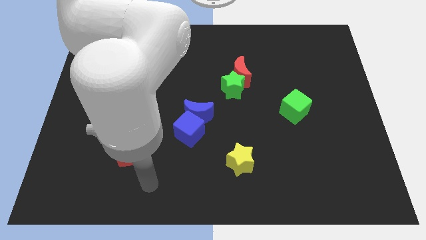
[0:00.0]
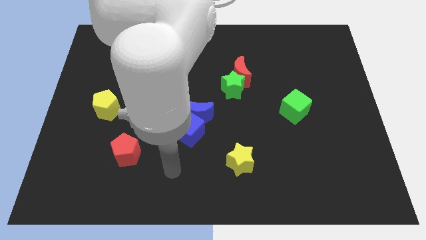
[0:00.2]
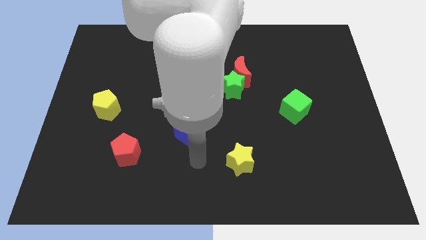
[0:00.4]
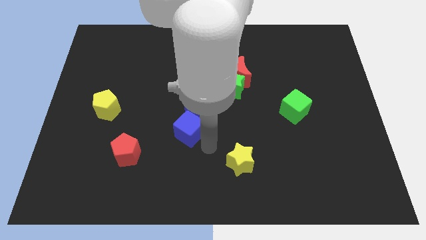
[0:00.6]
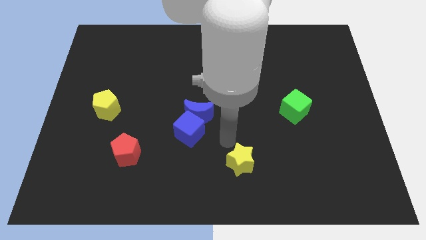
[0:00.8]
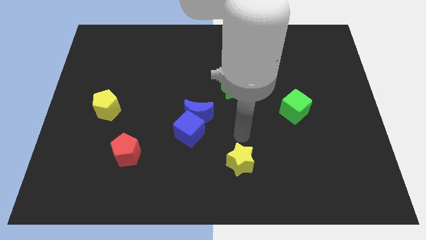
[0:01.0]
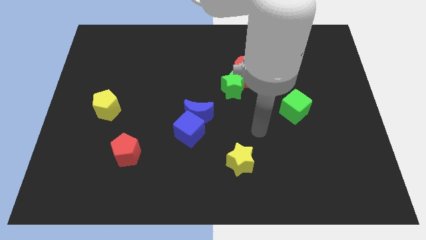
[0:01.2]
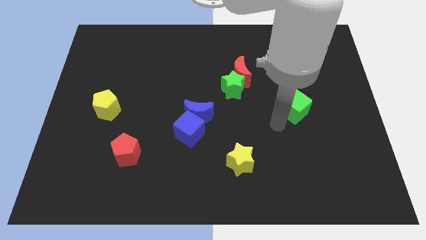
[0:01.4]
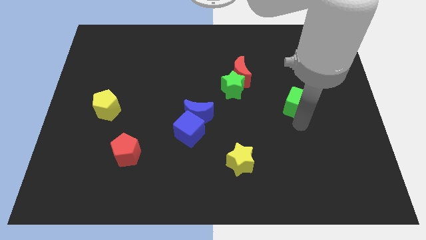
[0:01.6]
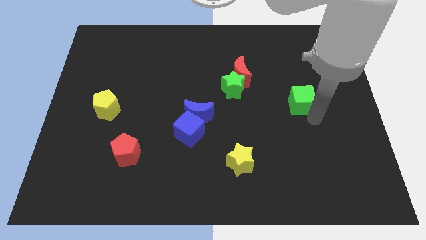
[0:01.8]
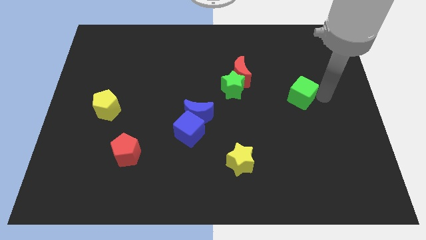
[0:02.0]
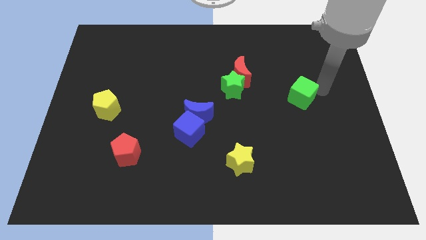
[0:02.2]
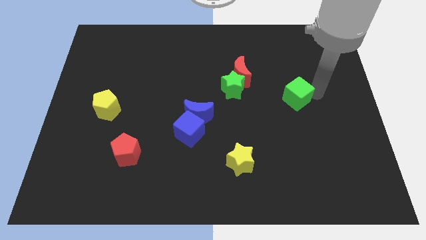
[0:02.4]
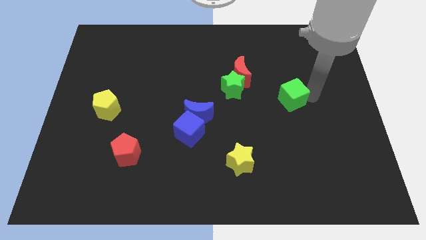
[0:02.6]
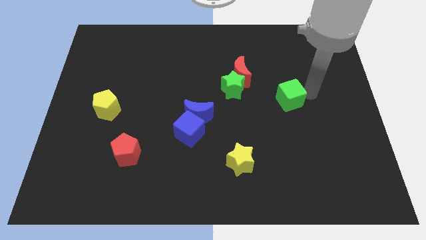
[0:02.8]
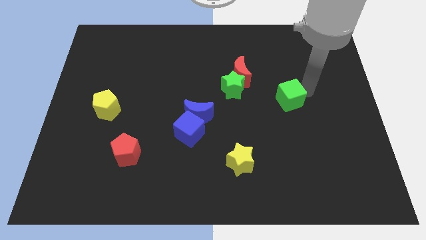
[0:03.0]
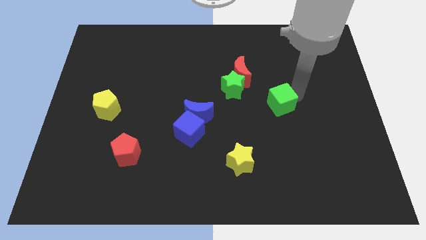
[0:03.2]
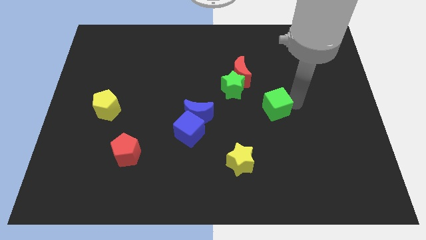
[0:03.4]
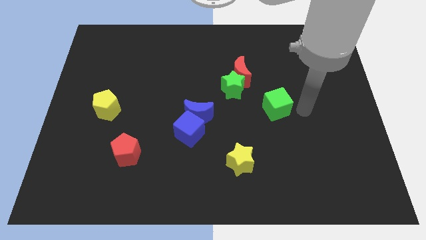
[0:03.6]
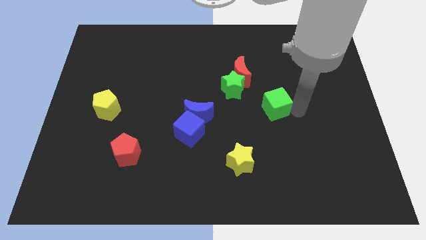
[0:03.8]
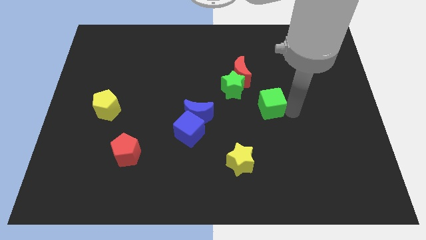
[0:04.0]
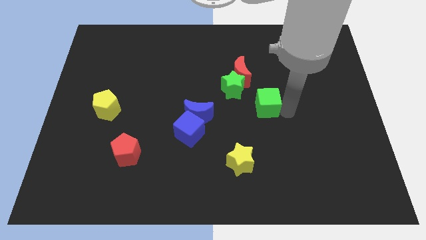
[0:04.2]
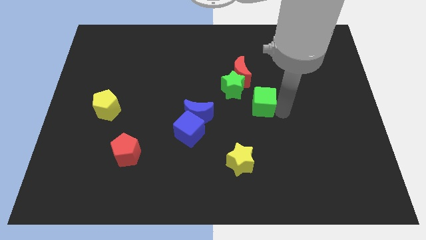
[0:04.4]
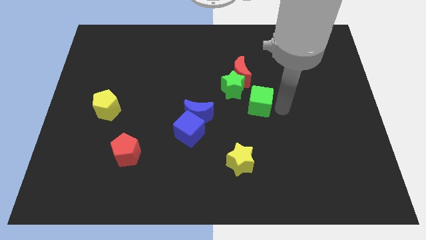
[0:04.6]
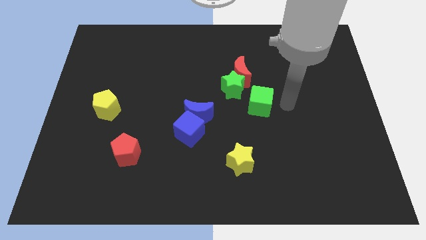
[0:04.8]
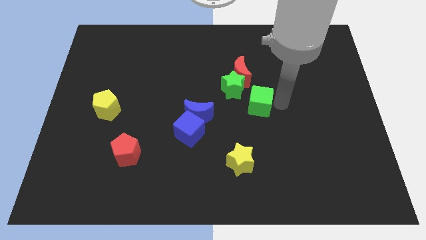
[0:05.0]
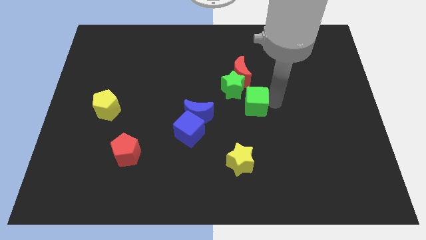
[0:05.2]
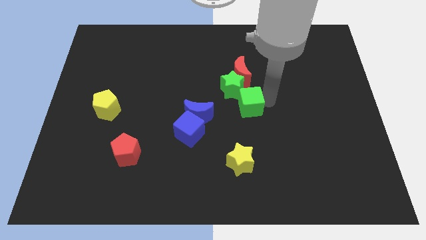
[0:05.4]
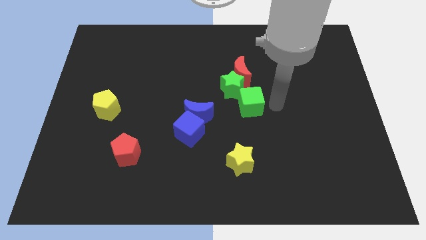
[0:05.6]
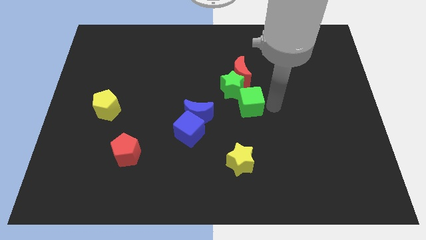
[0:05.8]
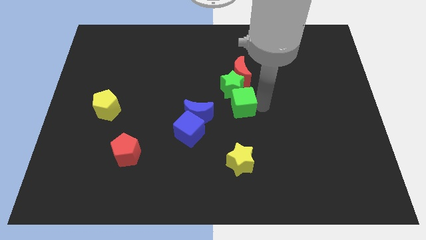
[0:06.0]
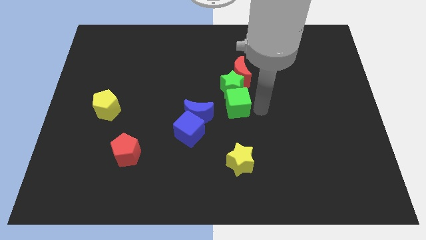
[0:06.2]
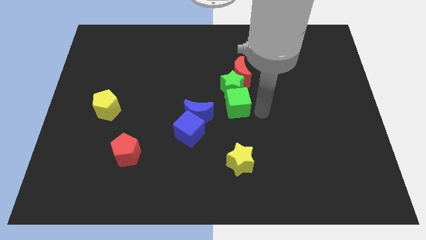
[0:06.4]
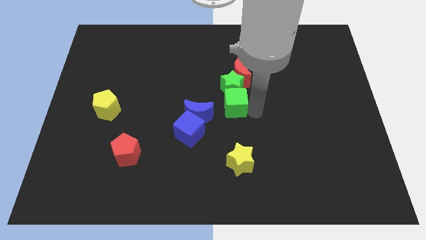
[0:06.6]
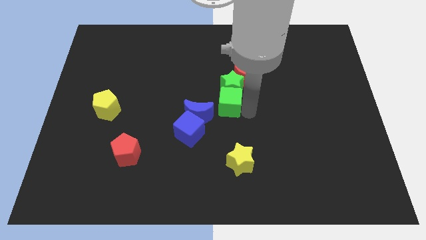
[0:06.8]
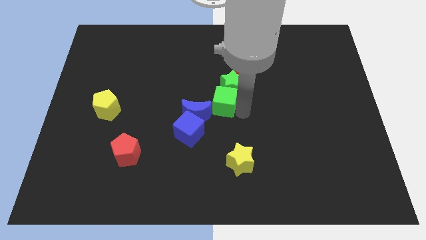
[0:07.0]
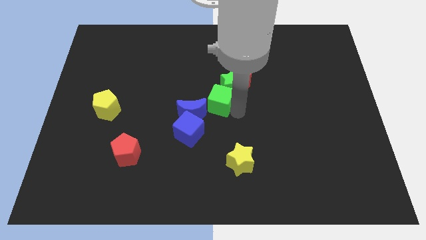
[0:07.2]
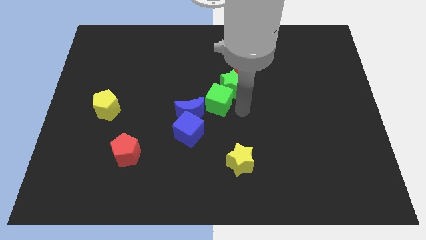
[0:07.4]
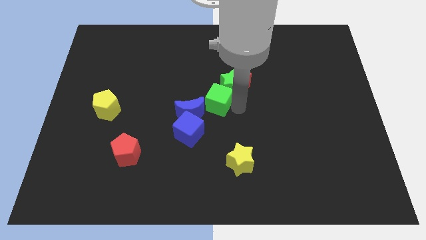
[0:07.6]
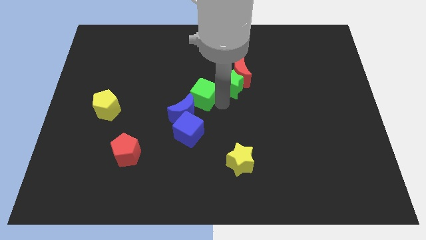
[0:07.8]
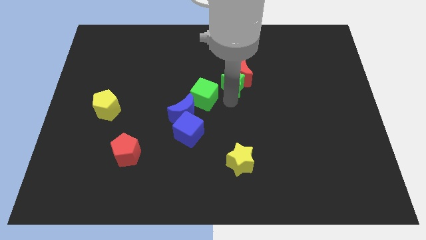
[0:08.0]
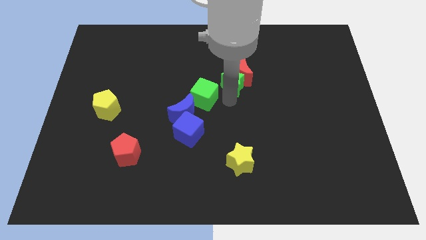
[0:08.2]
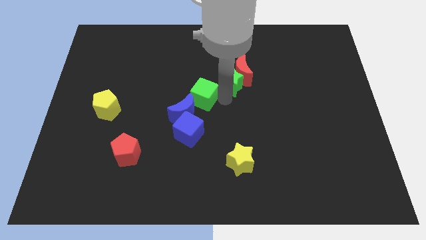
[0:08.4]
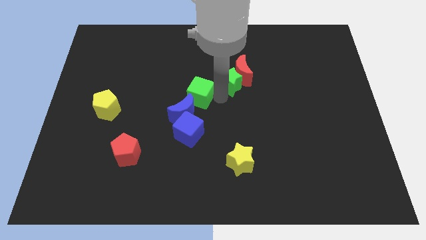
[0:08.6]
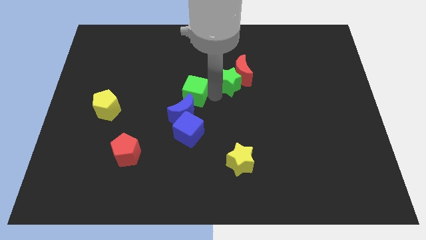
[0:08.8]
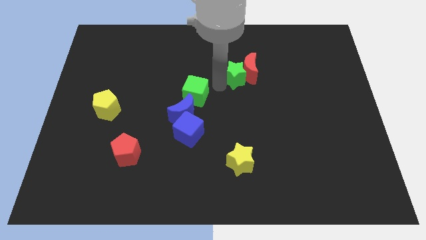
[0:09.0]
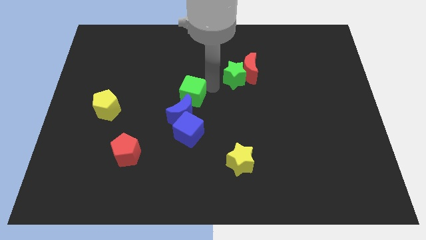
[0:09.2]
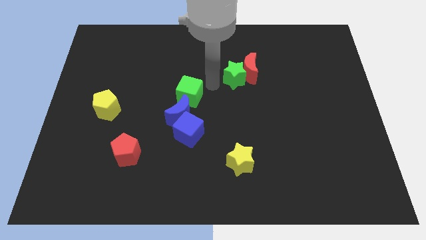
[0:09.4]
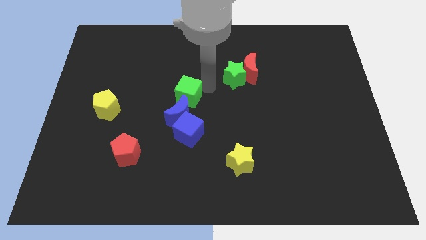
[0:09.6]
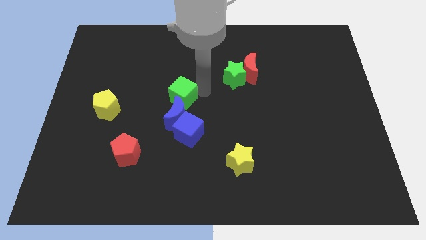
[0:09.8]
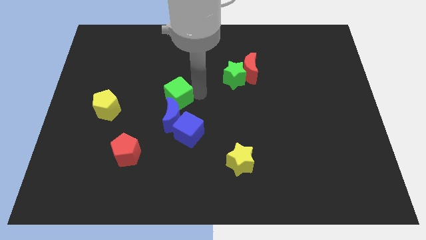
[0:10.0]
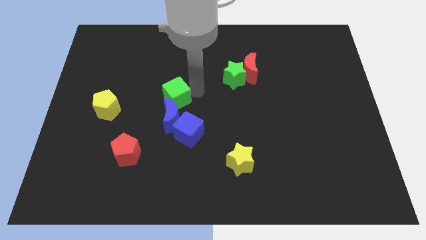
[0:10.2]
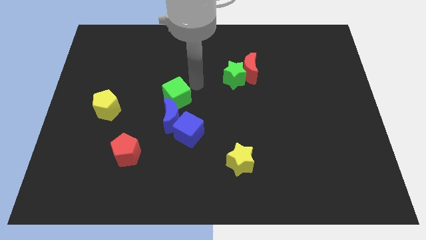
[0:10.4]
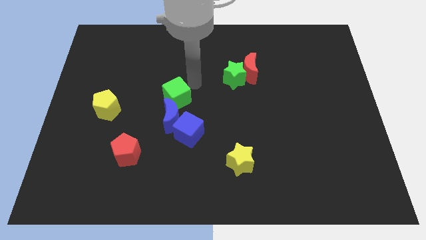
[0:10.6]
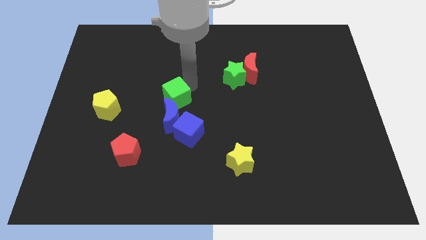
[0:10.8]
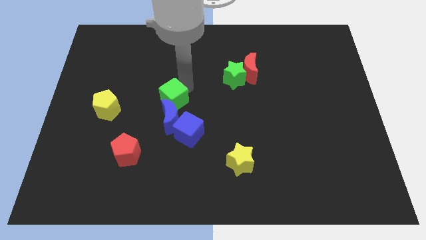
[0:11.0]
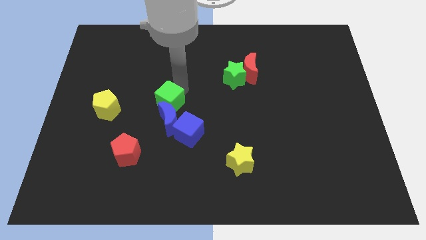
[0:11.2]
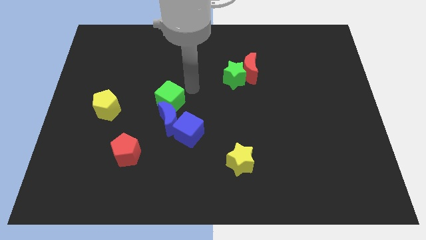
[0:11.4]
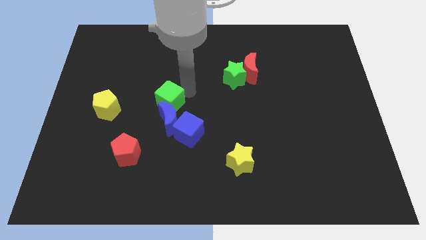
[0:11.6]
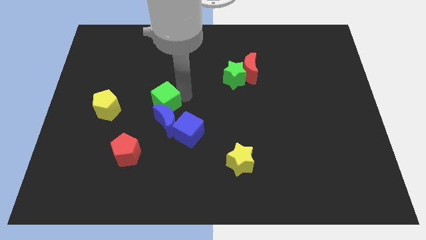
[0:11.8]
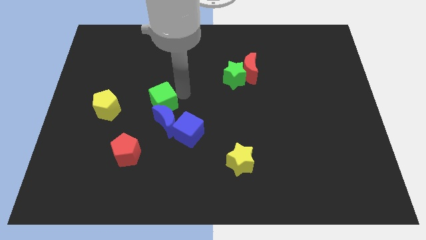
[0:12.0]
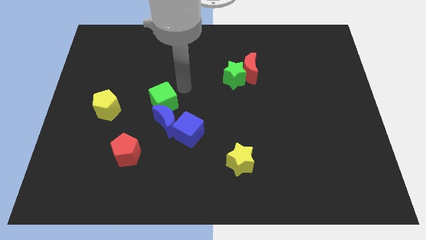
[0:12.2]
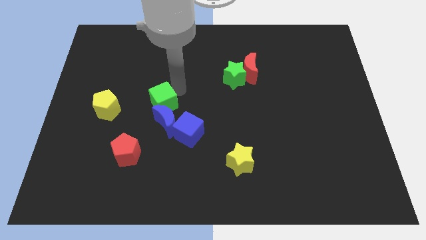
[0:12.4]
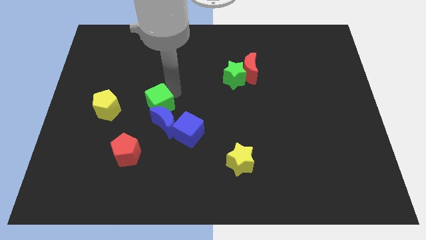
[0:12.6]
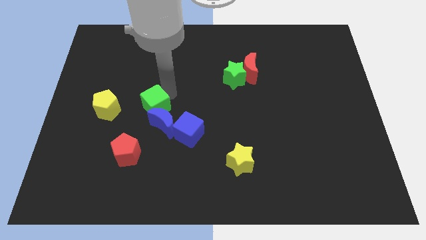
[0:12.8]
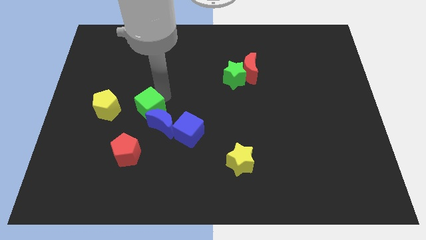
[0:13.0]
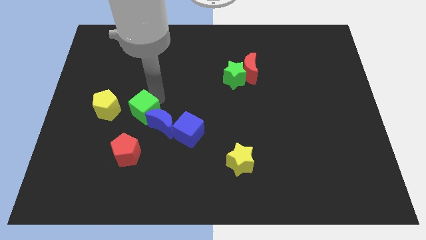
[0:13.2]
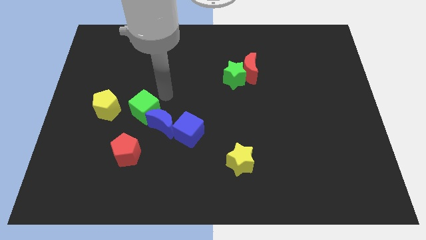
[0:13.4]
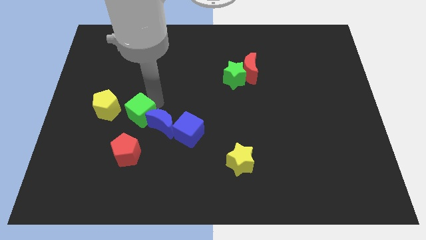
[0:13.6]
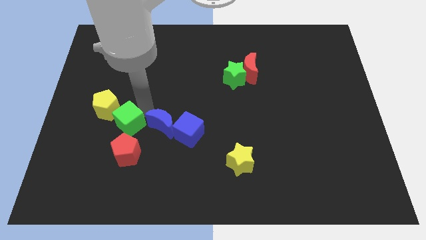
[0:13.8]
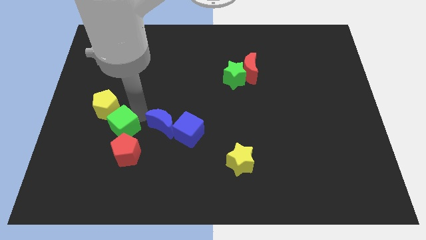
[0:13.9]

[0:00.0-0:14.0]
slide the green cube diagonally up and to the left of the red pentagon
